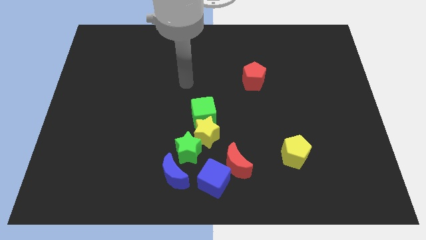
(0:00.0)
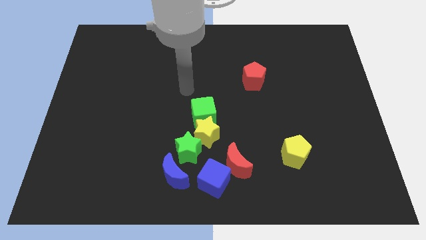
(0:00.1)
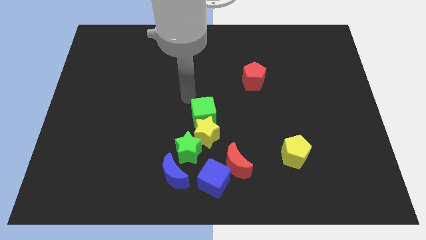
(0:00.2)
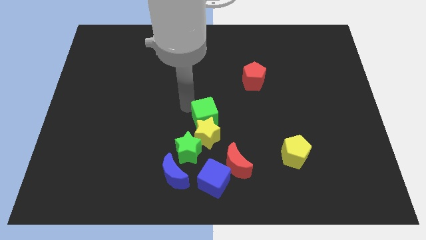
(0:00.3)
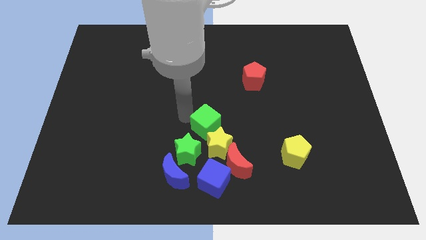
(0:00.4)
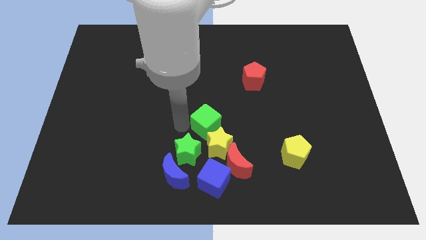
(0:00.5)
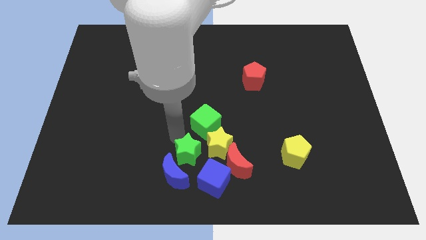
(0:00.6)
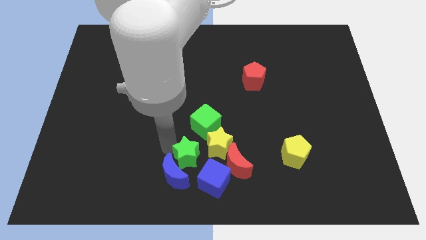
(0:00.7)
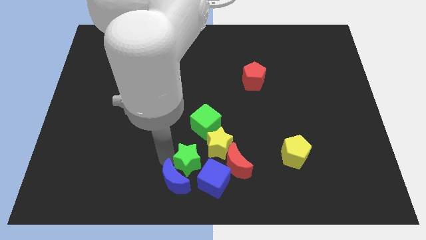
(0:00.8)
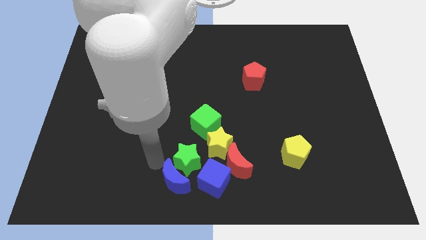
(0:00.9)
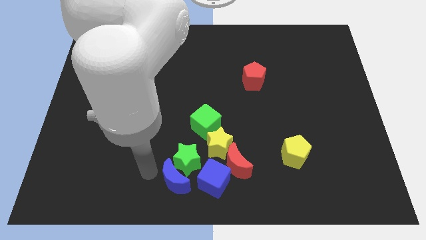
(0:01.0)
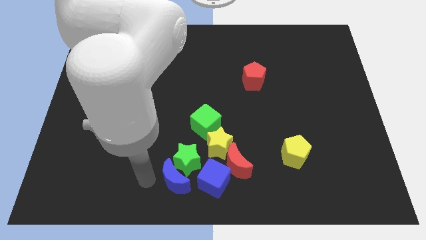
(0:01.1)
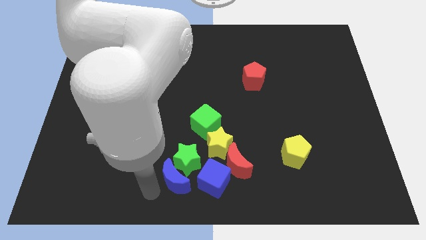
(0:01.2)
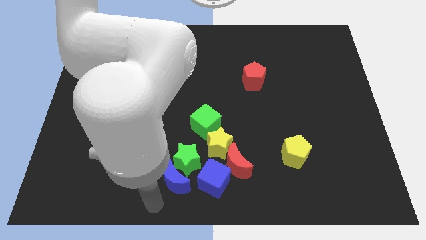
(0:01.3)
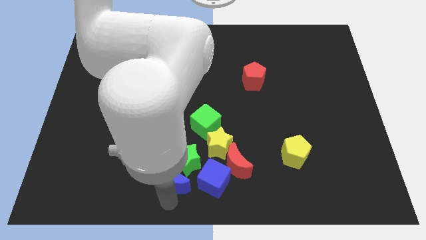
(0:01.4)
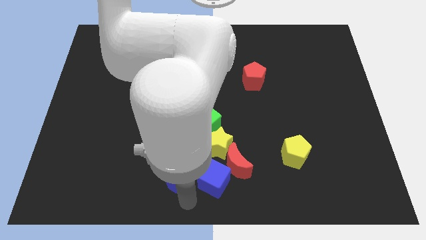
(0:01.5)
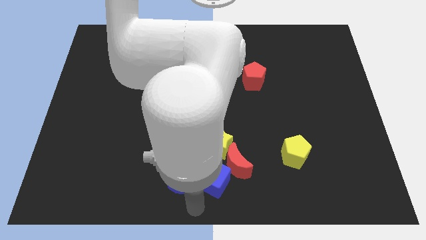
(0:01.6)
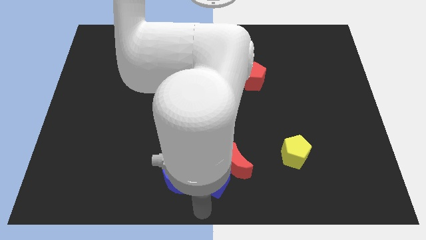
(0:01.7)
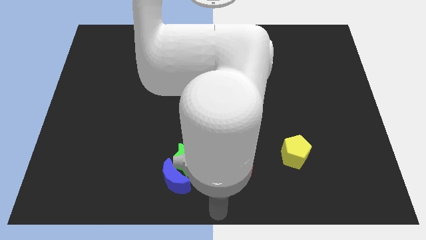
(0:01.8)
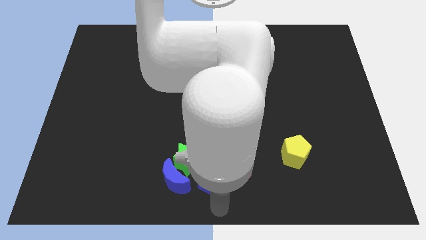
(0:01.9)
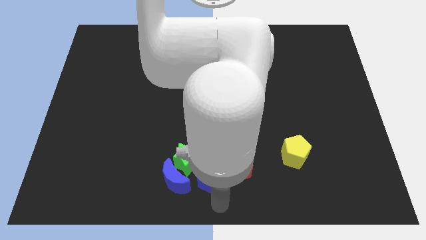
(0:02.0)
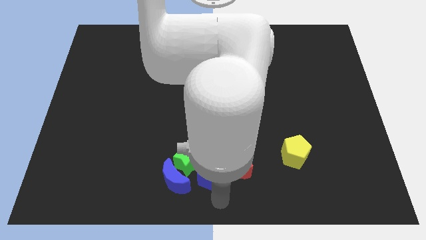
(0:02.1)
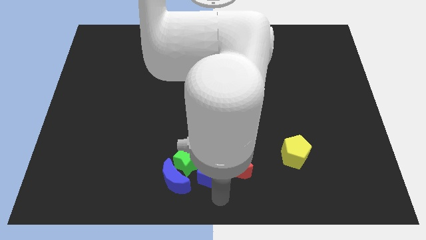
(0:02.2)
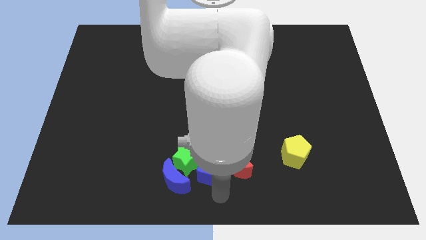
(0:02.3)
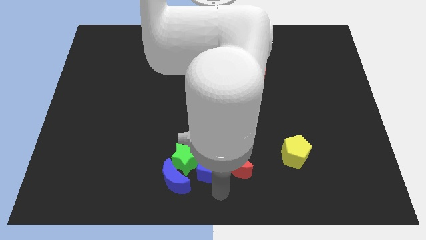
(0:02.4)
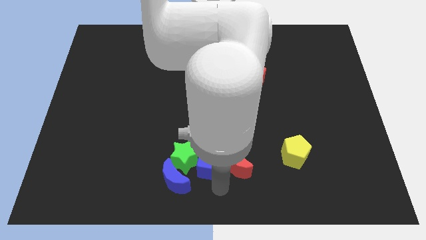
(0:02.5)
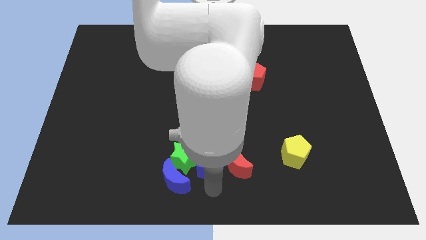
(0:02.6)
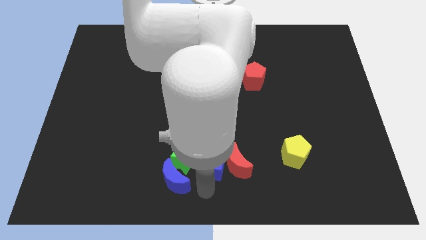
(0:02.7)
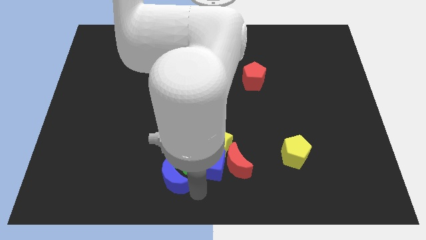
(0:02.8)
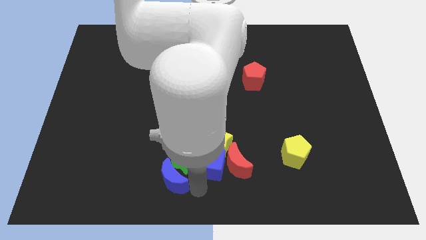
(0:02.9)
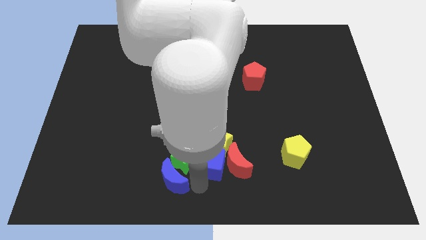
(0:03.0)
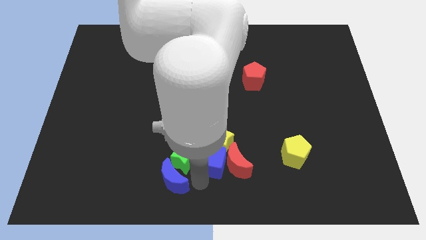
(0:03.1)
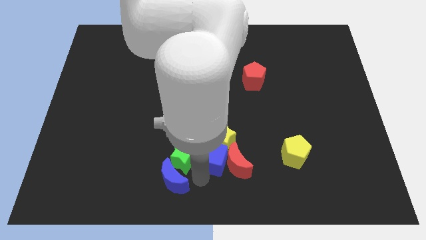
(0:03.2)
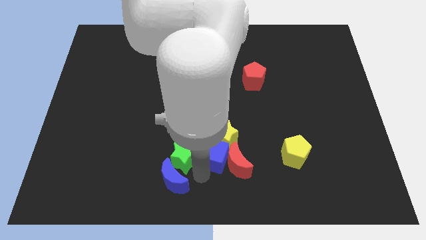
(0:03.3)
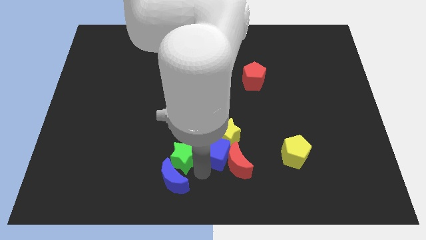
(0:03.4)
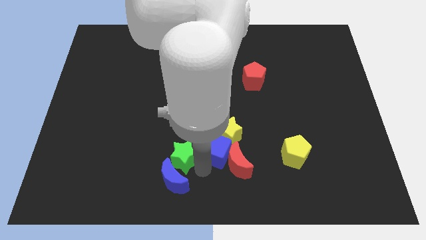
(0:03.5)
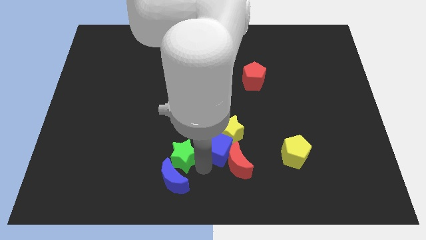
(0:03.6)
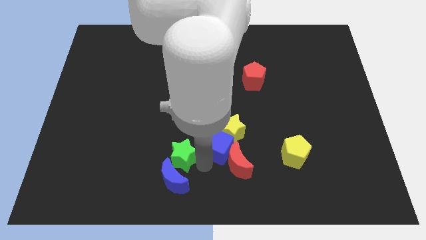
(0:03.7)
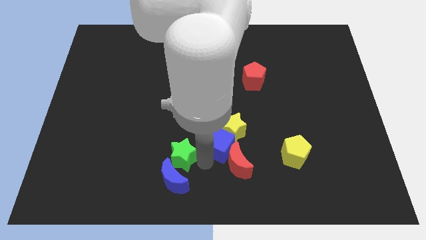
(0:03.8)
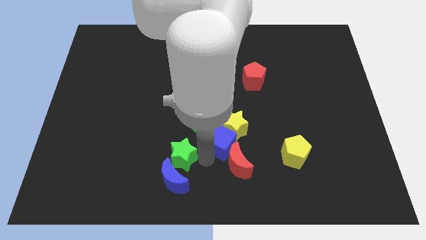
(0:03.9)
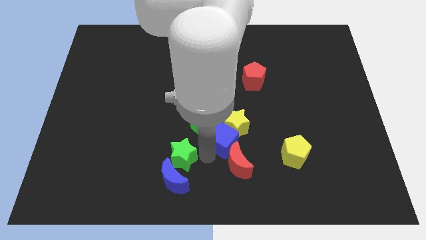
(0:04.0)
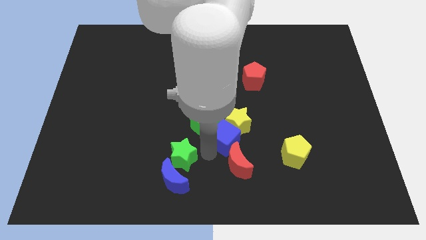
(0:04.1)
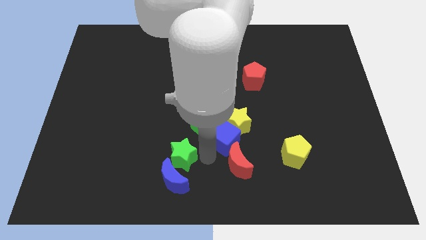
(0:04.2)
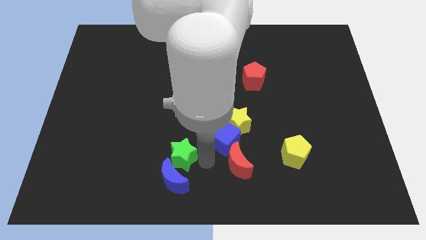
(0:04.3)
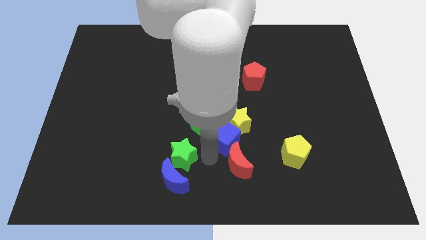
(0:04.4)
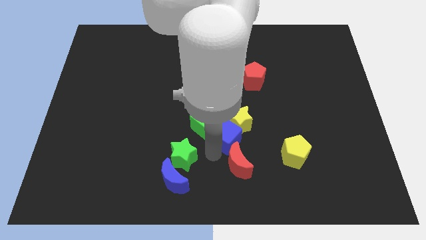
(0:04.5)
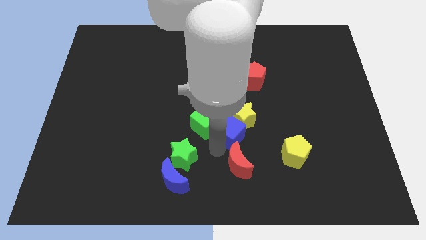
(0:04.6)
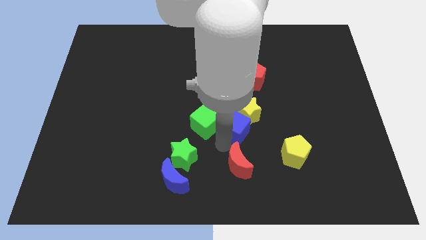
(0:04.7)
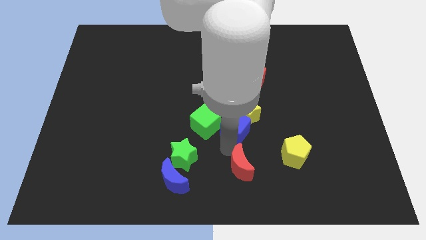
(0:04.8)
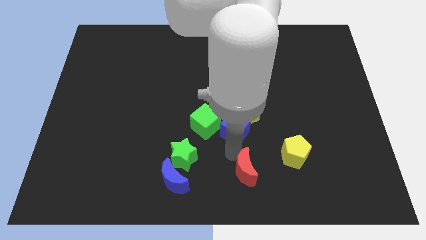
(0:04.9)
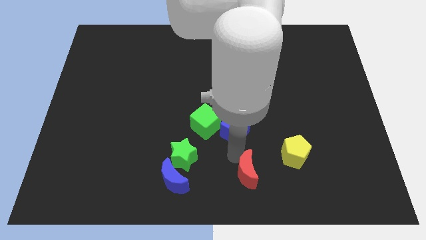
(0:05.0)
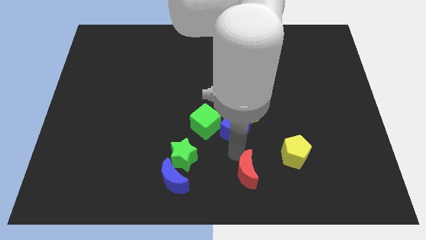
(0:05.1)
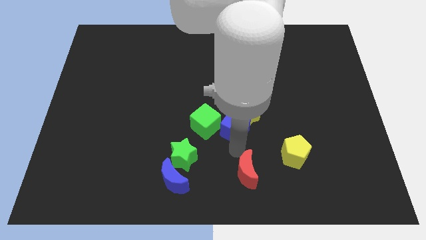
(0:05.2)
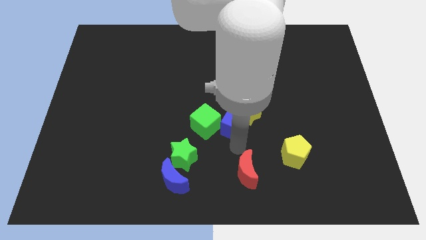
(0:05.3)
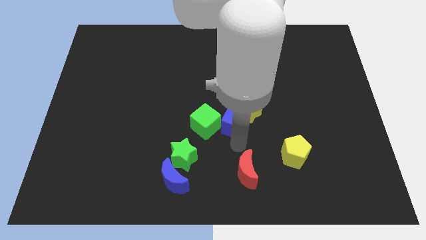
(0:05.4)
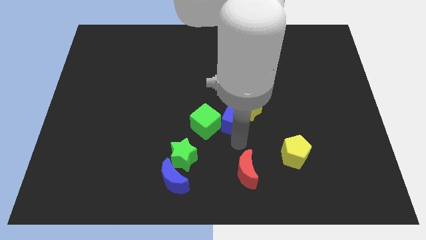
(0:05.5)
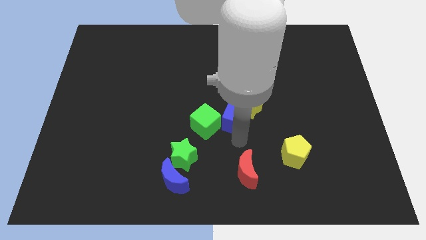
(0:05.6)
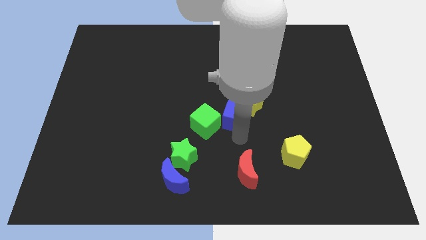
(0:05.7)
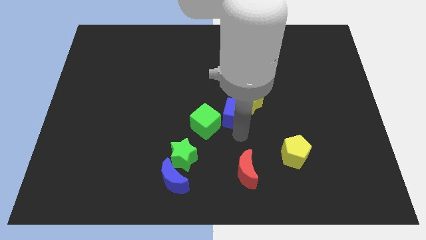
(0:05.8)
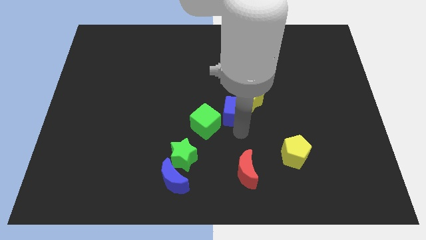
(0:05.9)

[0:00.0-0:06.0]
move the blue cube diagonally down and to the left of the red pentagon

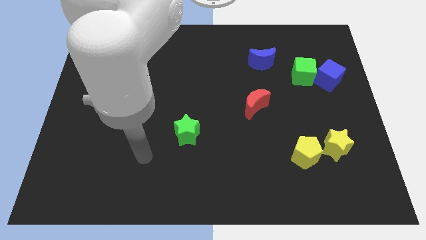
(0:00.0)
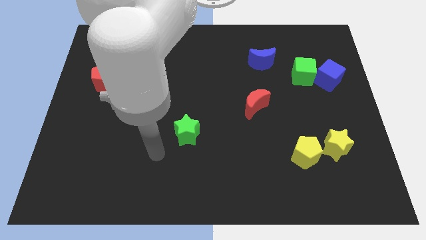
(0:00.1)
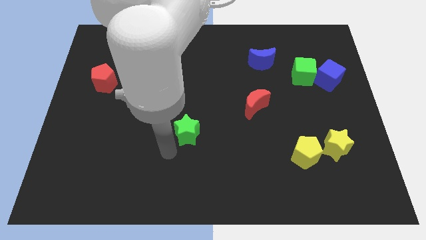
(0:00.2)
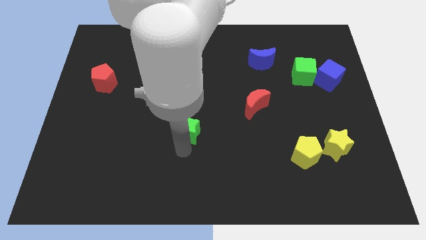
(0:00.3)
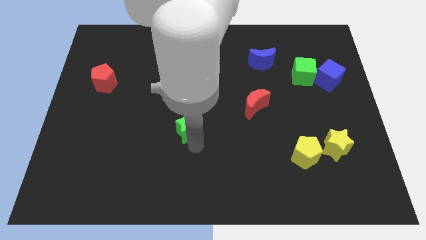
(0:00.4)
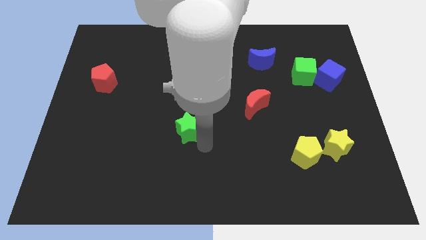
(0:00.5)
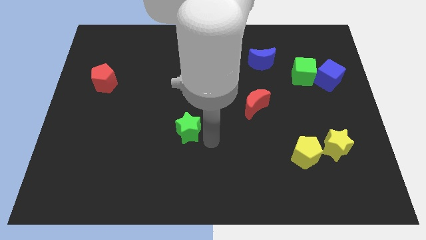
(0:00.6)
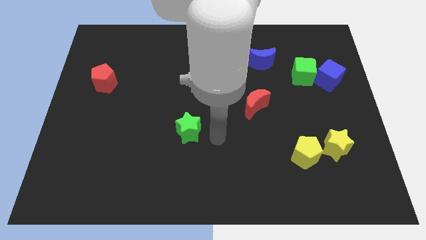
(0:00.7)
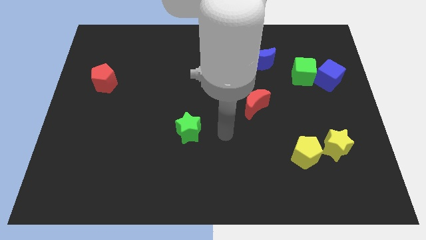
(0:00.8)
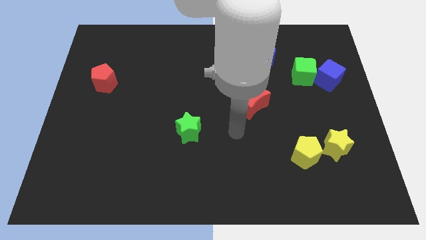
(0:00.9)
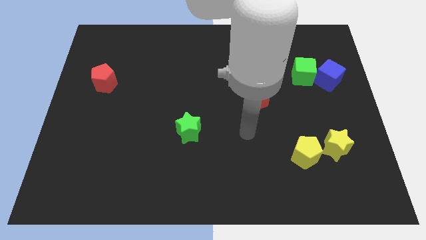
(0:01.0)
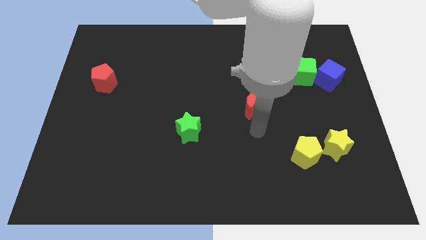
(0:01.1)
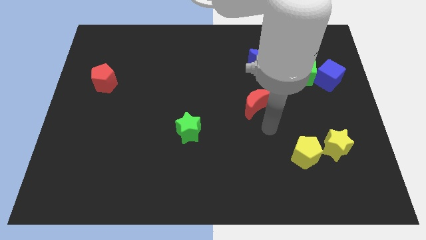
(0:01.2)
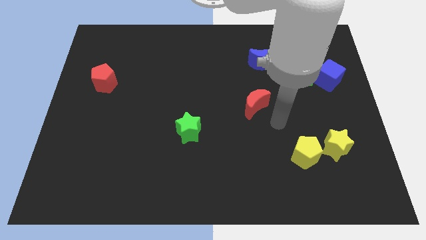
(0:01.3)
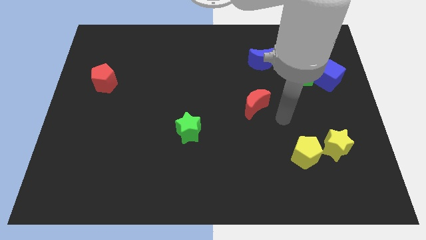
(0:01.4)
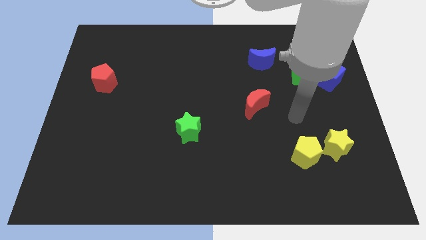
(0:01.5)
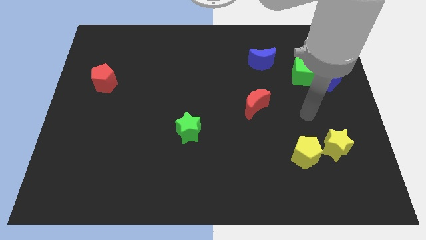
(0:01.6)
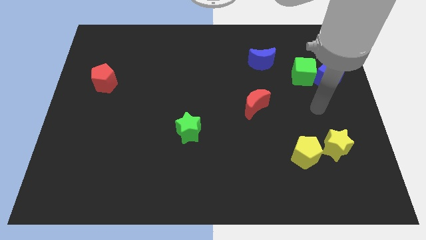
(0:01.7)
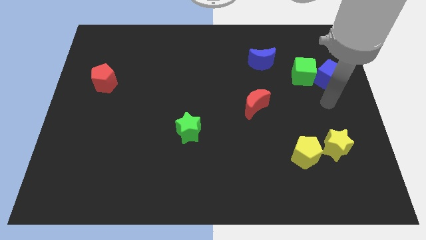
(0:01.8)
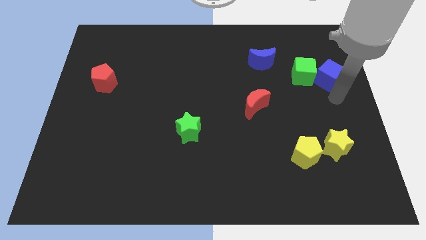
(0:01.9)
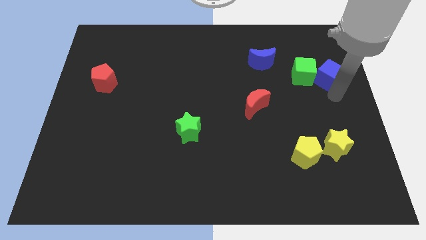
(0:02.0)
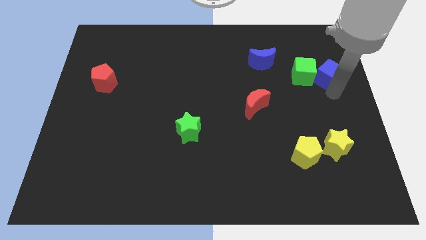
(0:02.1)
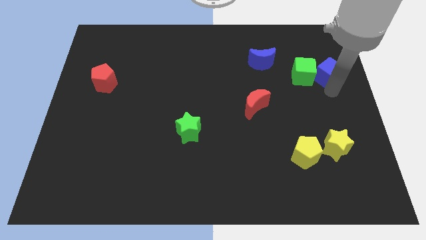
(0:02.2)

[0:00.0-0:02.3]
push the blue cube to the top right of the green cube
